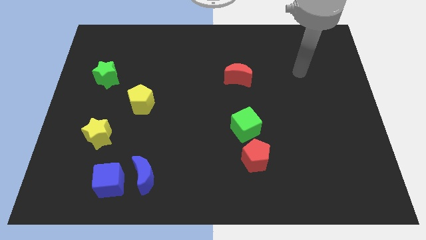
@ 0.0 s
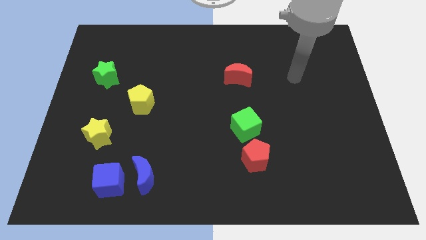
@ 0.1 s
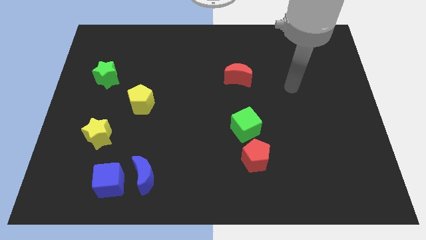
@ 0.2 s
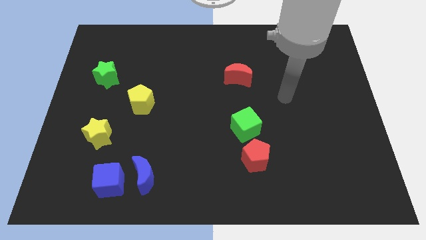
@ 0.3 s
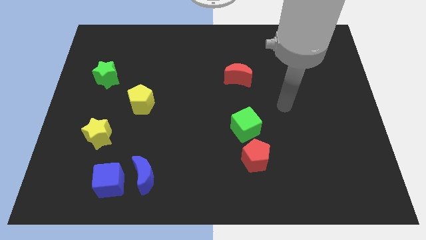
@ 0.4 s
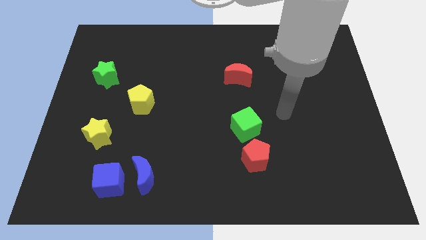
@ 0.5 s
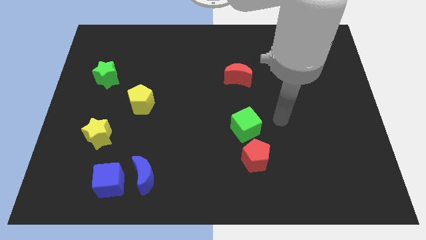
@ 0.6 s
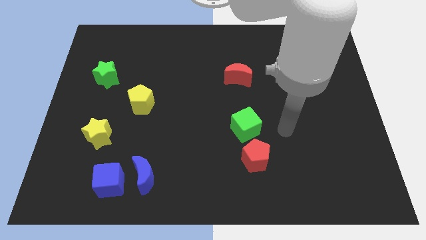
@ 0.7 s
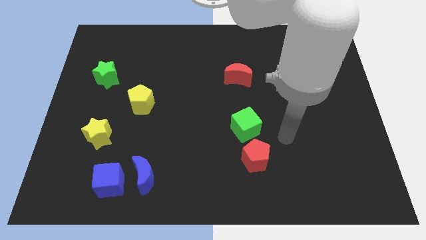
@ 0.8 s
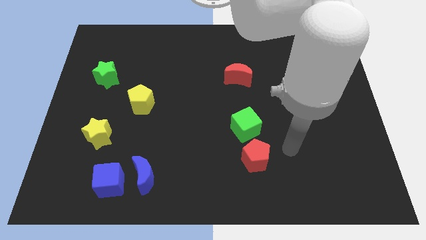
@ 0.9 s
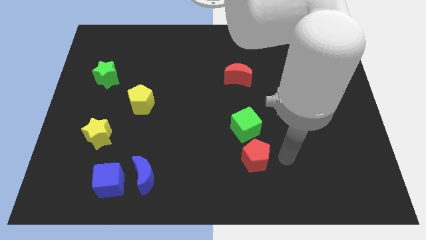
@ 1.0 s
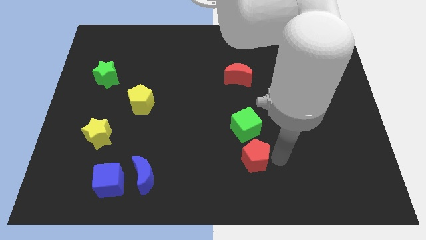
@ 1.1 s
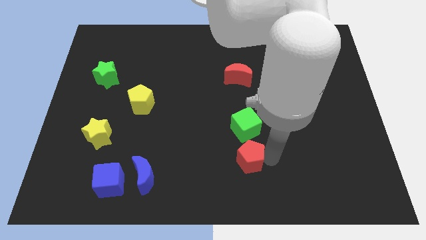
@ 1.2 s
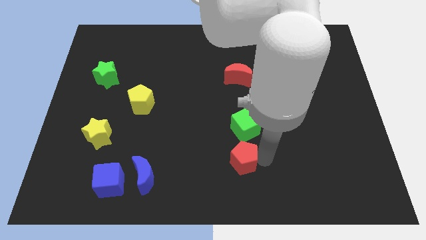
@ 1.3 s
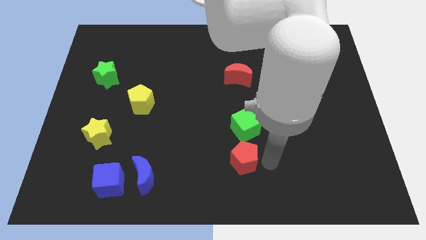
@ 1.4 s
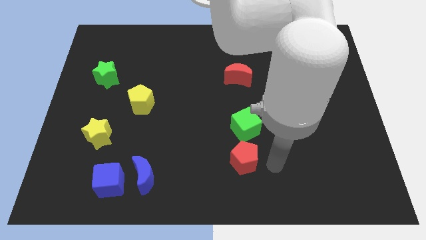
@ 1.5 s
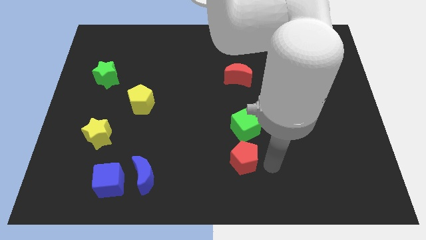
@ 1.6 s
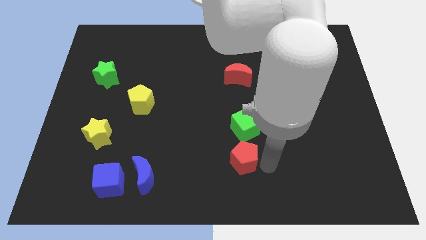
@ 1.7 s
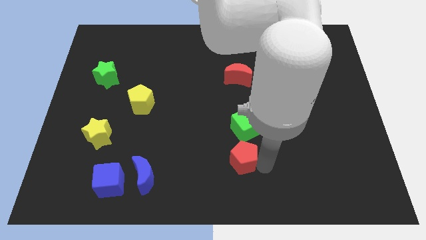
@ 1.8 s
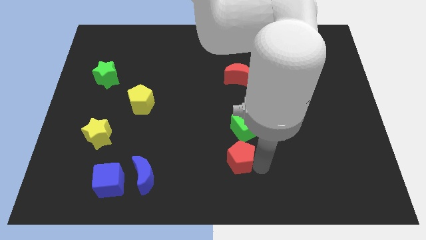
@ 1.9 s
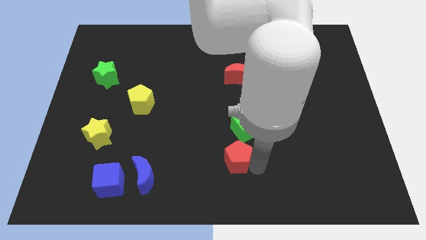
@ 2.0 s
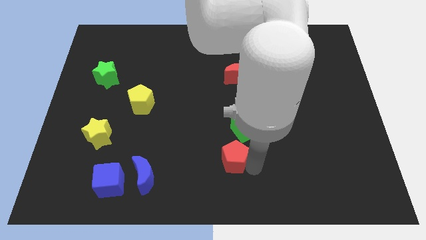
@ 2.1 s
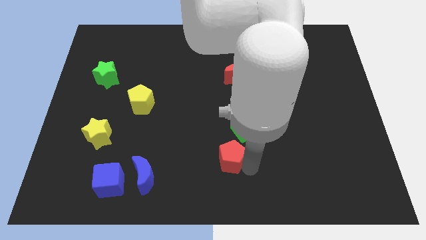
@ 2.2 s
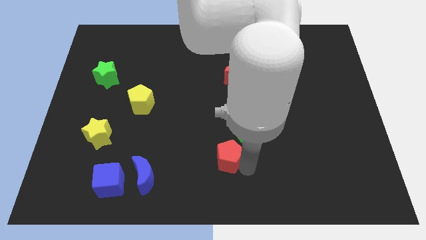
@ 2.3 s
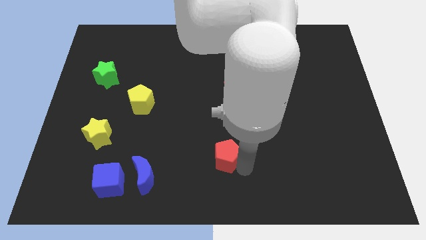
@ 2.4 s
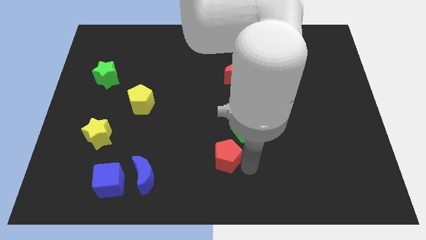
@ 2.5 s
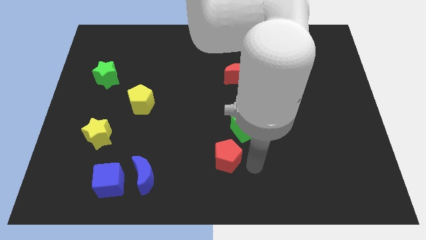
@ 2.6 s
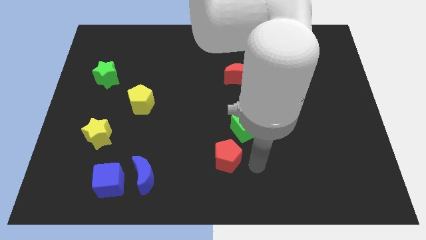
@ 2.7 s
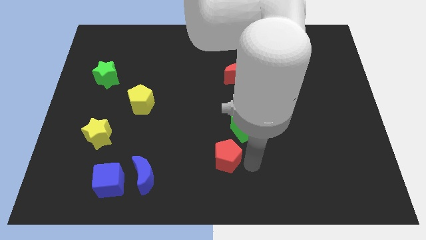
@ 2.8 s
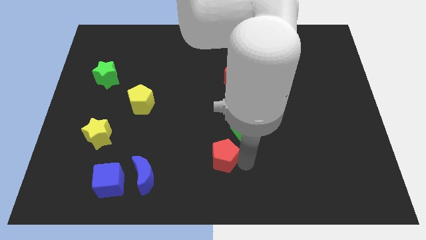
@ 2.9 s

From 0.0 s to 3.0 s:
move the red pentagon slightly to the left

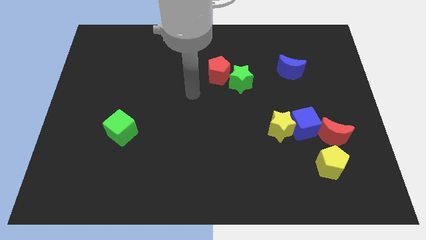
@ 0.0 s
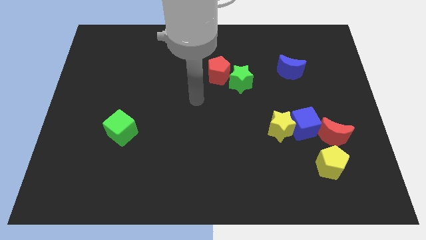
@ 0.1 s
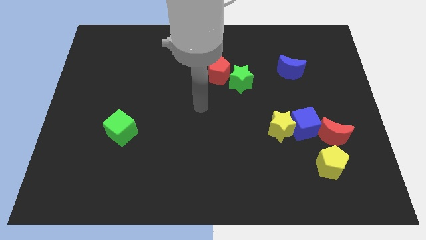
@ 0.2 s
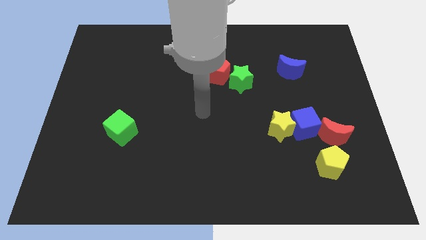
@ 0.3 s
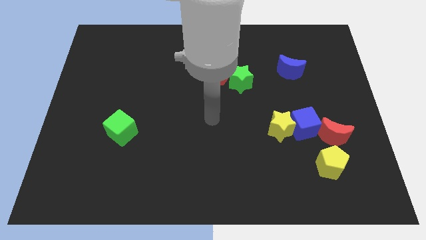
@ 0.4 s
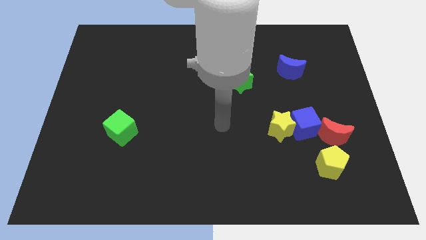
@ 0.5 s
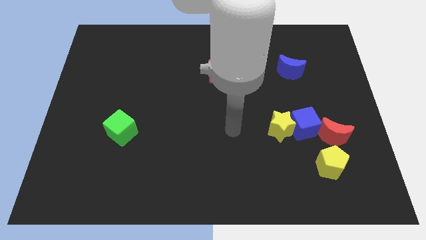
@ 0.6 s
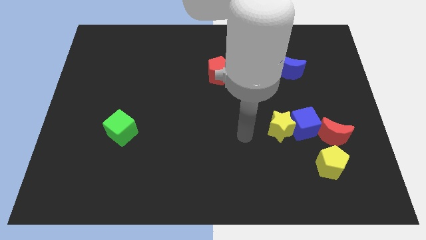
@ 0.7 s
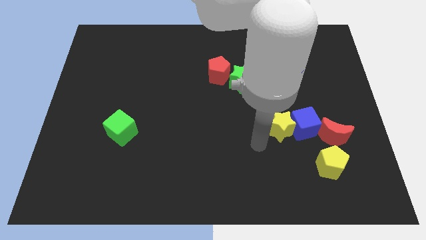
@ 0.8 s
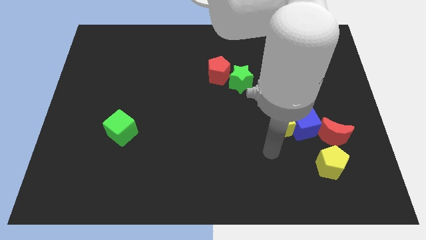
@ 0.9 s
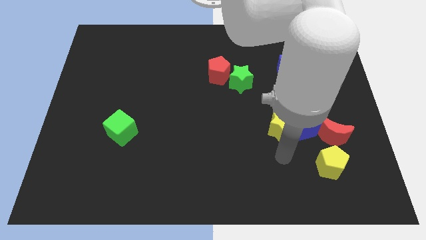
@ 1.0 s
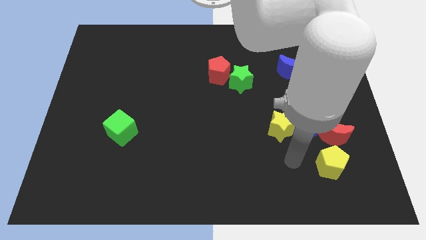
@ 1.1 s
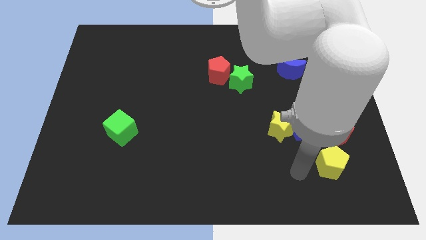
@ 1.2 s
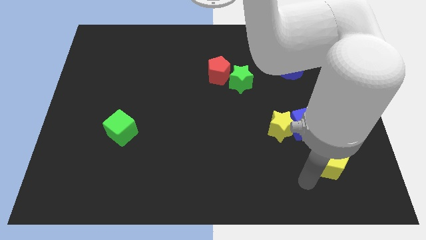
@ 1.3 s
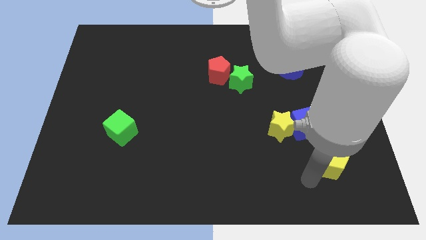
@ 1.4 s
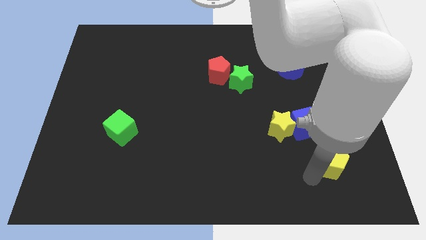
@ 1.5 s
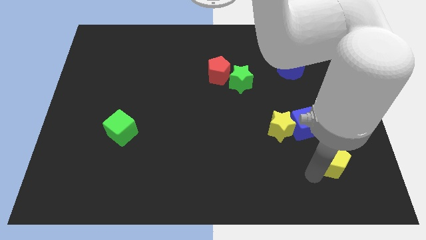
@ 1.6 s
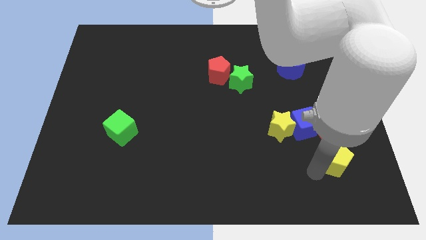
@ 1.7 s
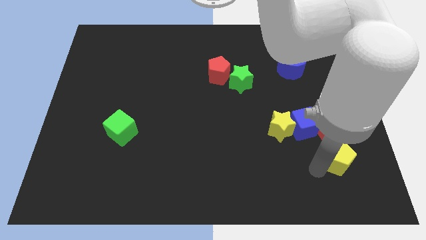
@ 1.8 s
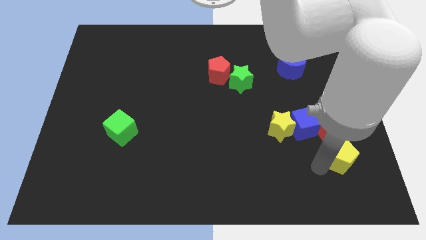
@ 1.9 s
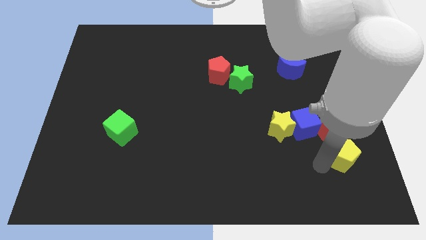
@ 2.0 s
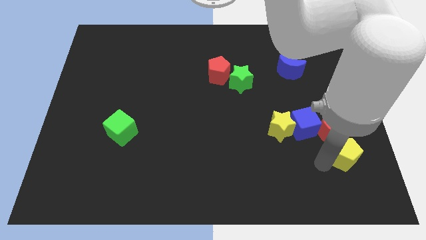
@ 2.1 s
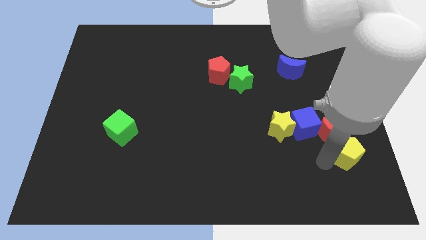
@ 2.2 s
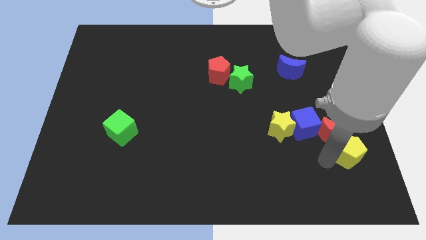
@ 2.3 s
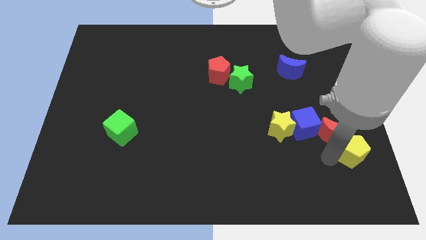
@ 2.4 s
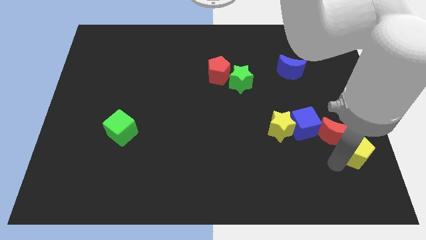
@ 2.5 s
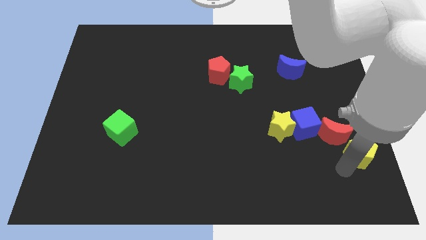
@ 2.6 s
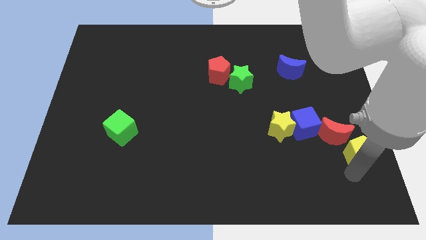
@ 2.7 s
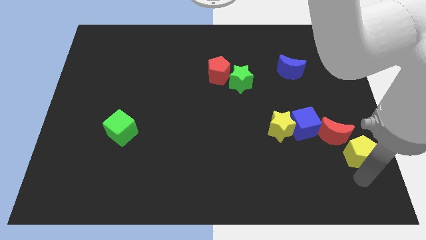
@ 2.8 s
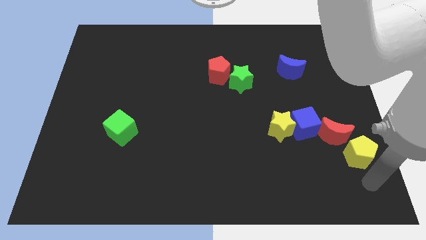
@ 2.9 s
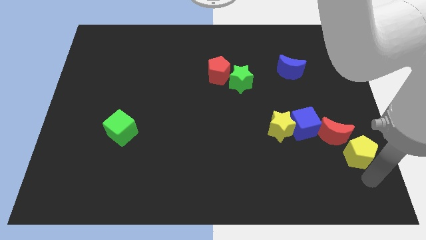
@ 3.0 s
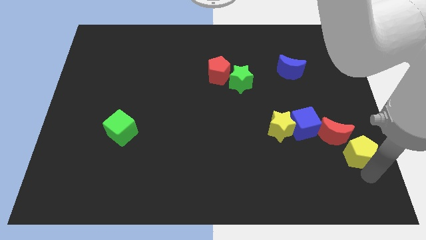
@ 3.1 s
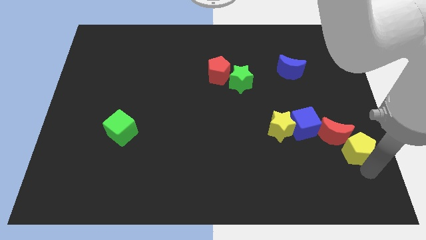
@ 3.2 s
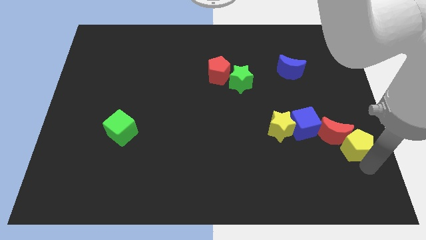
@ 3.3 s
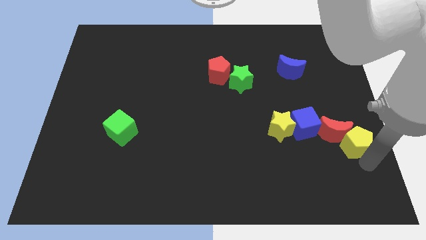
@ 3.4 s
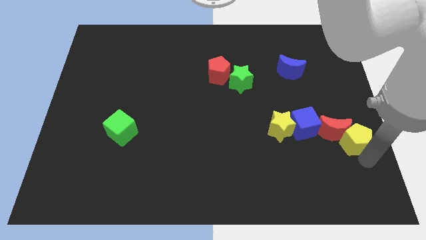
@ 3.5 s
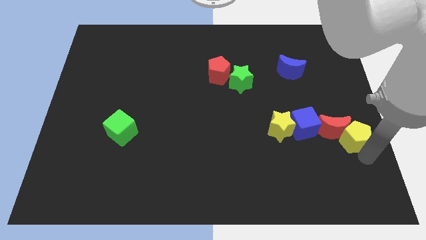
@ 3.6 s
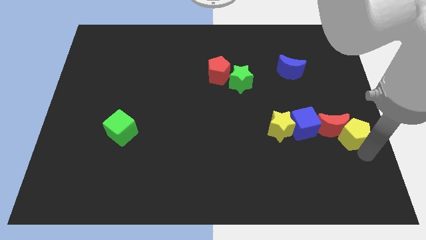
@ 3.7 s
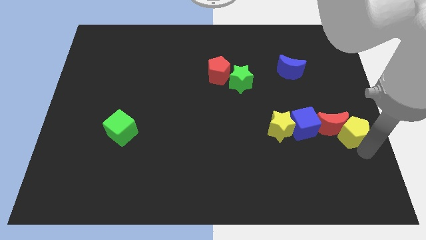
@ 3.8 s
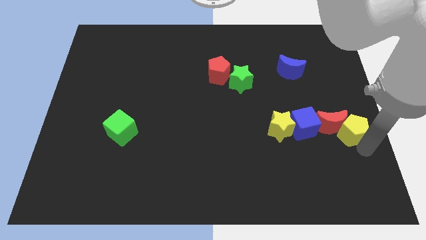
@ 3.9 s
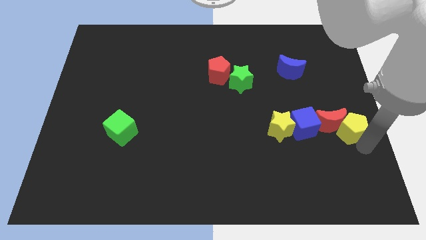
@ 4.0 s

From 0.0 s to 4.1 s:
push the yellow pentagon a little bit up

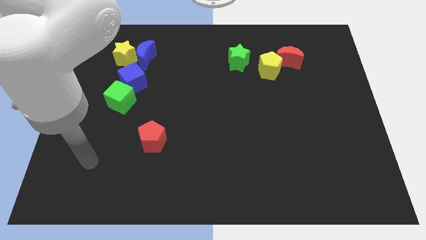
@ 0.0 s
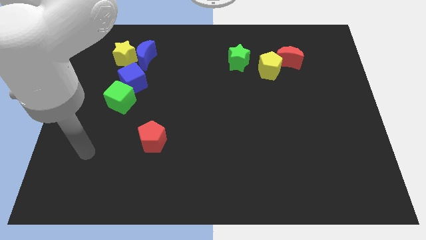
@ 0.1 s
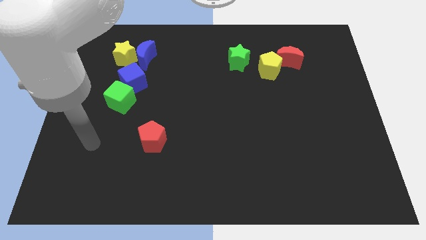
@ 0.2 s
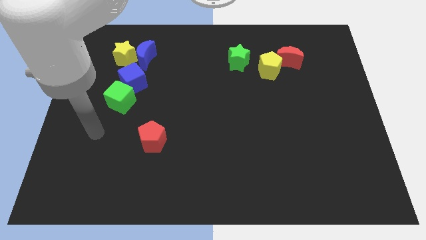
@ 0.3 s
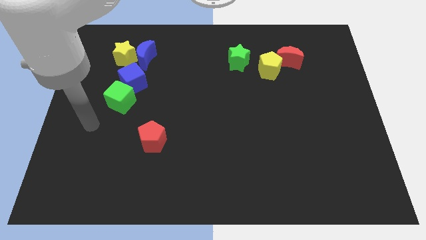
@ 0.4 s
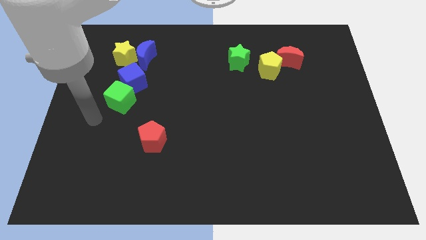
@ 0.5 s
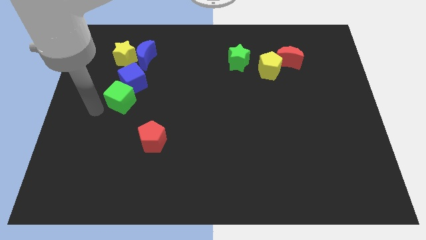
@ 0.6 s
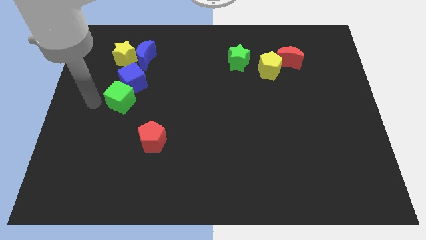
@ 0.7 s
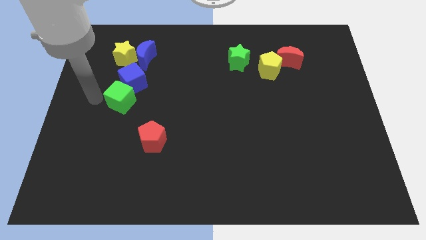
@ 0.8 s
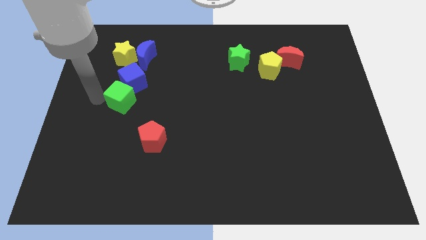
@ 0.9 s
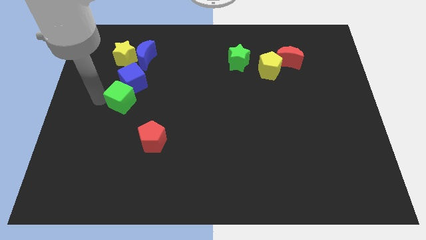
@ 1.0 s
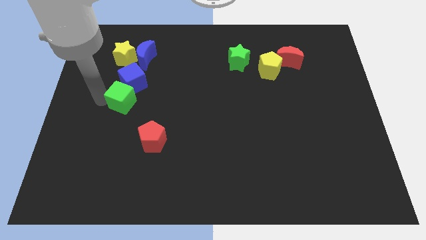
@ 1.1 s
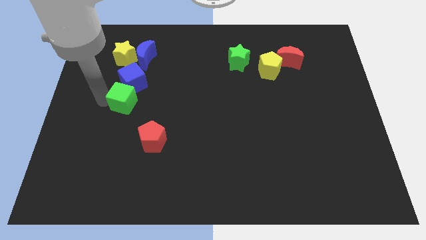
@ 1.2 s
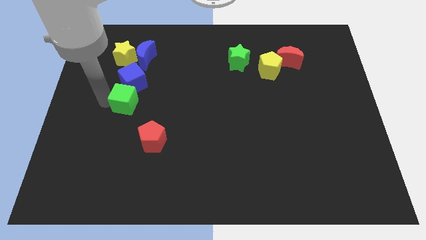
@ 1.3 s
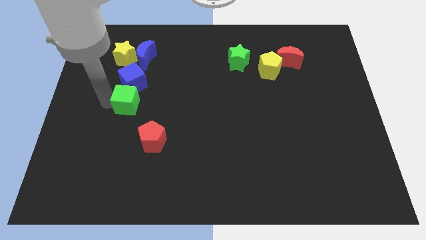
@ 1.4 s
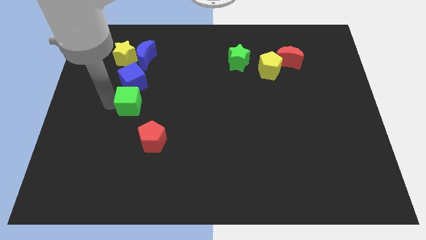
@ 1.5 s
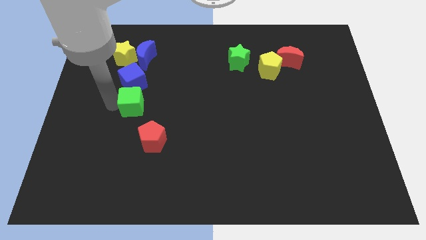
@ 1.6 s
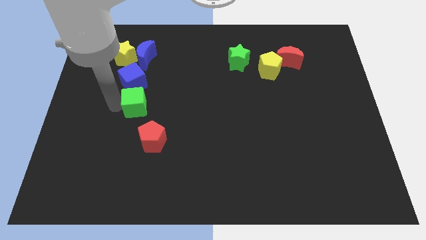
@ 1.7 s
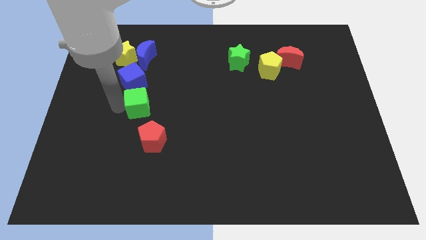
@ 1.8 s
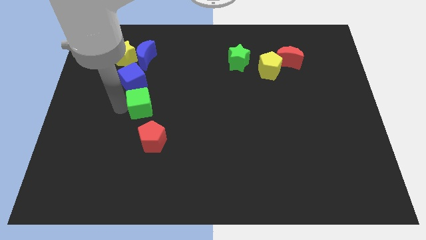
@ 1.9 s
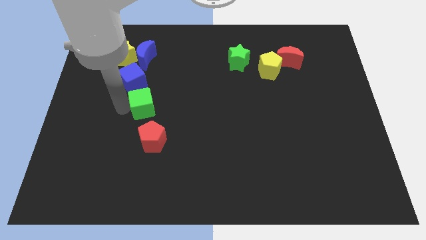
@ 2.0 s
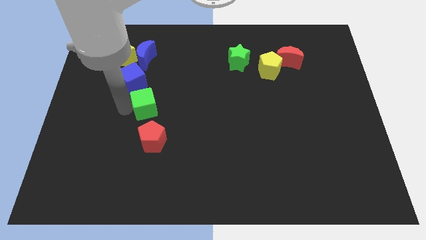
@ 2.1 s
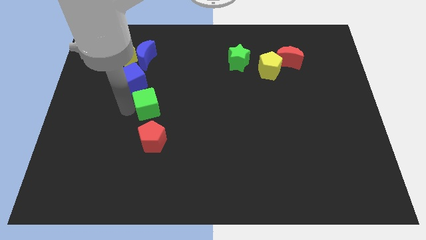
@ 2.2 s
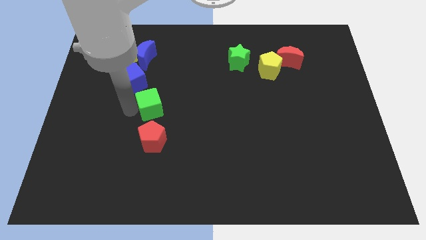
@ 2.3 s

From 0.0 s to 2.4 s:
move the green cube a bit right
